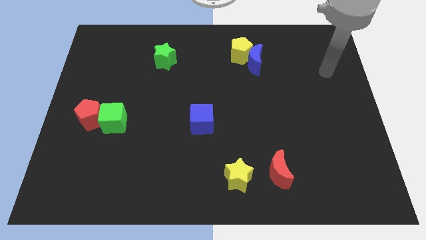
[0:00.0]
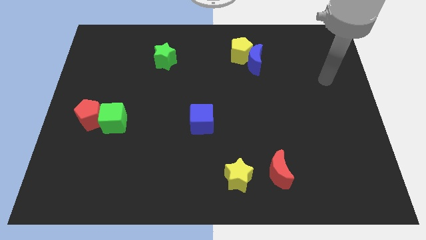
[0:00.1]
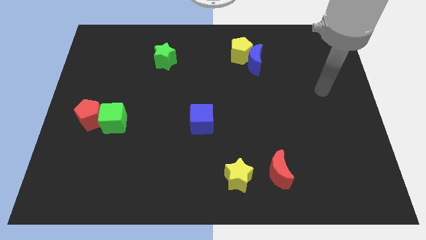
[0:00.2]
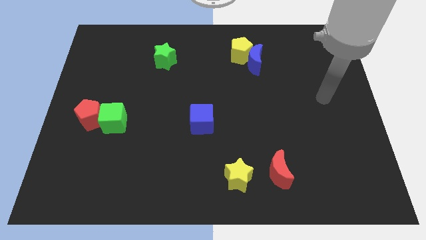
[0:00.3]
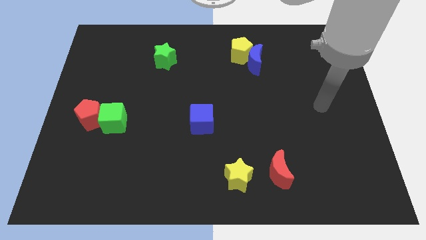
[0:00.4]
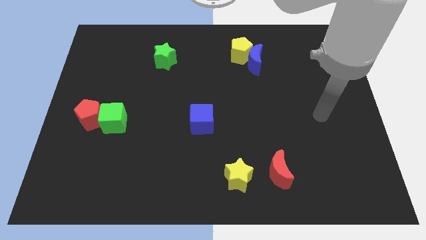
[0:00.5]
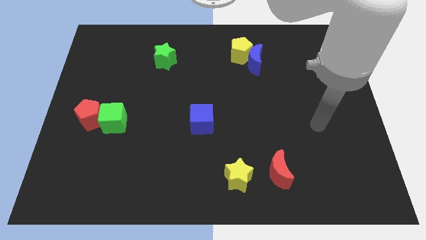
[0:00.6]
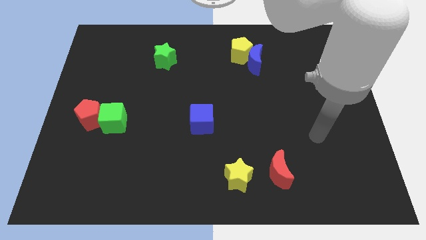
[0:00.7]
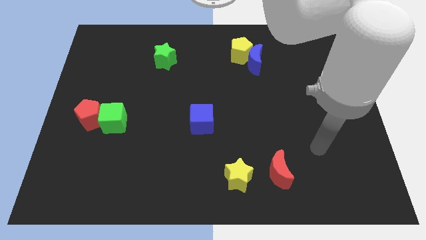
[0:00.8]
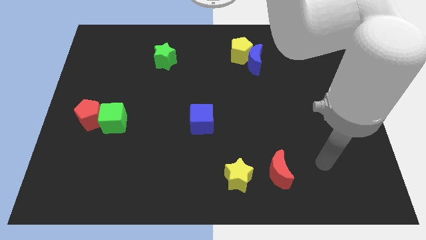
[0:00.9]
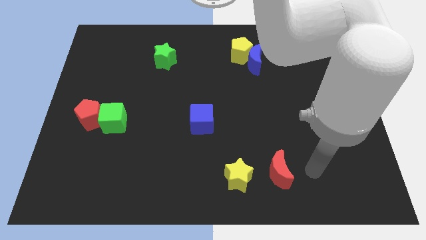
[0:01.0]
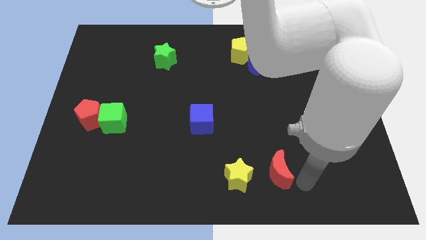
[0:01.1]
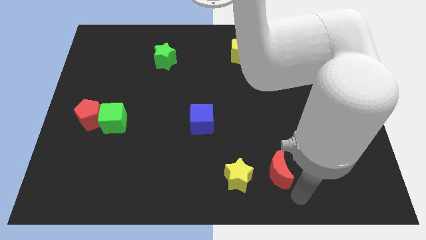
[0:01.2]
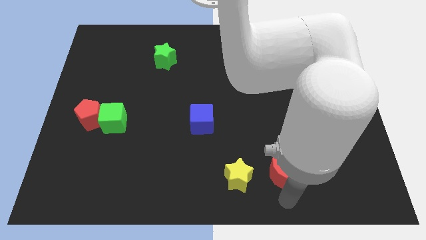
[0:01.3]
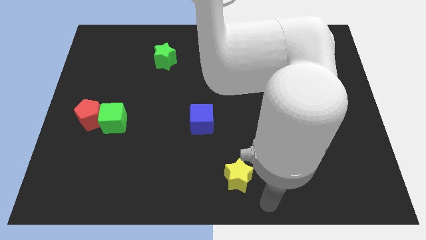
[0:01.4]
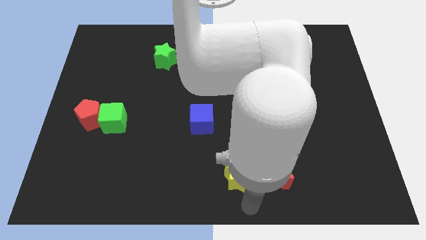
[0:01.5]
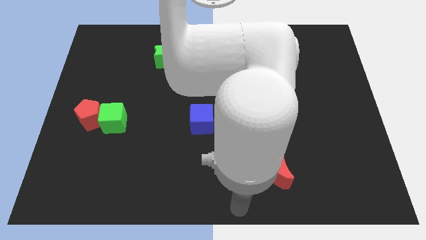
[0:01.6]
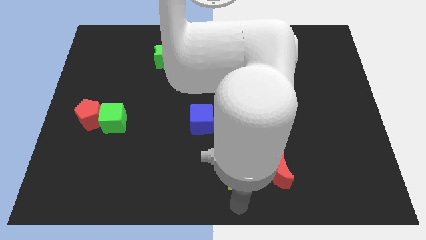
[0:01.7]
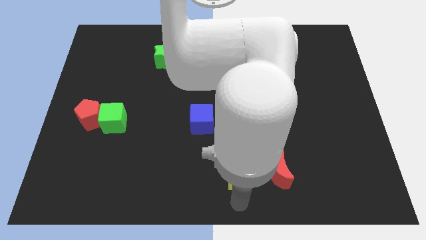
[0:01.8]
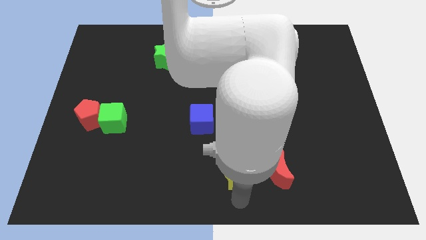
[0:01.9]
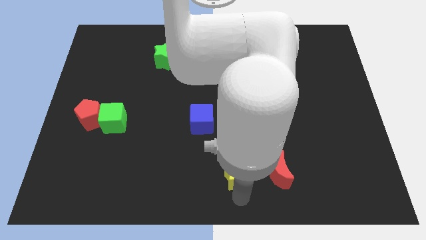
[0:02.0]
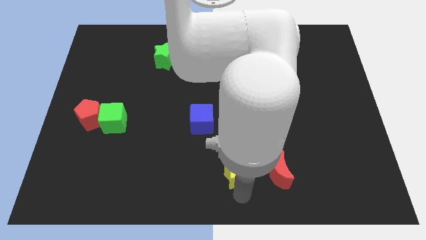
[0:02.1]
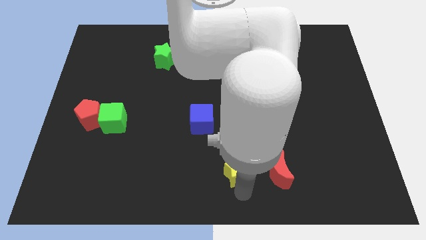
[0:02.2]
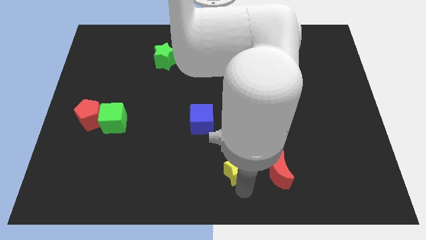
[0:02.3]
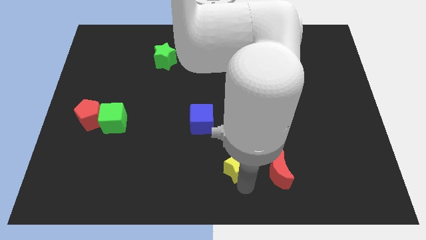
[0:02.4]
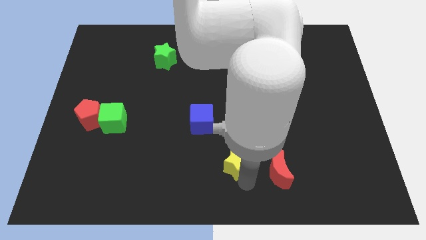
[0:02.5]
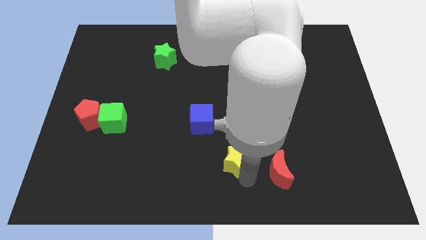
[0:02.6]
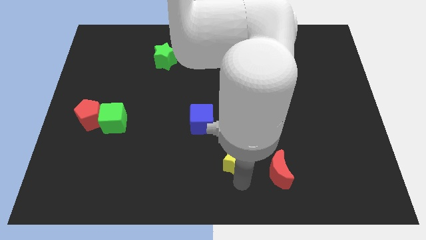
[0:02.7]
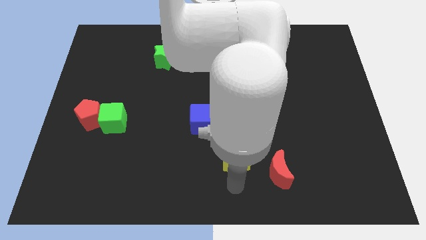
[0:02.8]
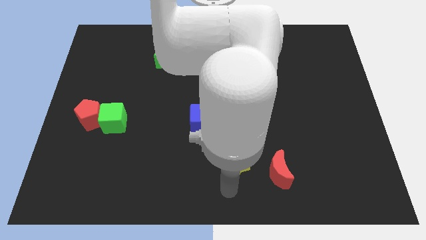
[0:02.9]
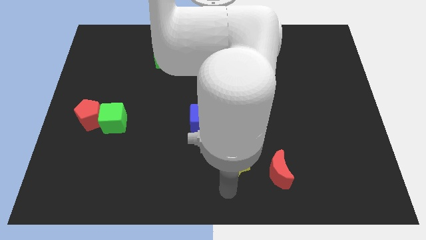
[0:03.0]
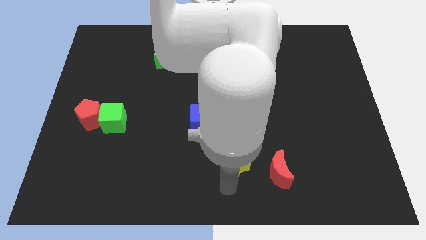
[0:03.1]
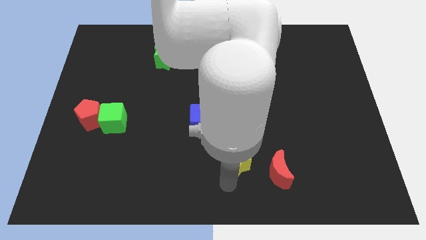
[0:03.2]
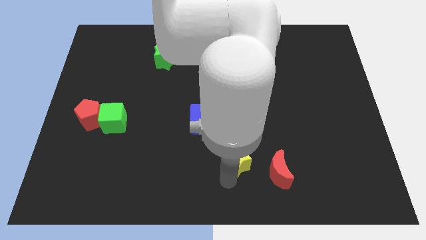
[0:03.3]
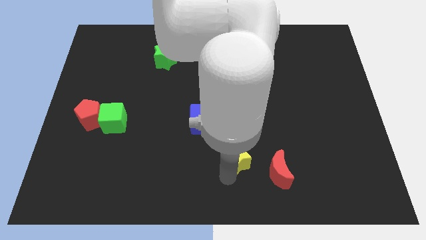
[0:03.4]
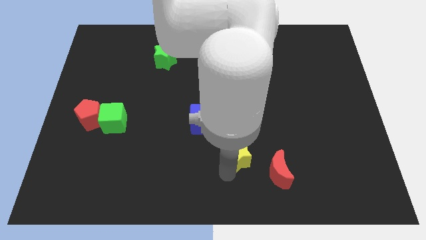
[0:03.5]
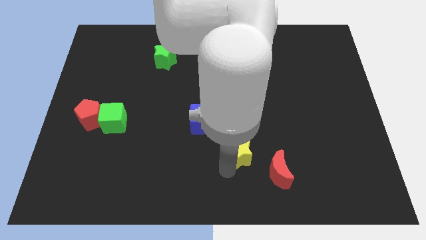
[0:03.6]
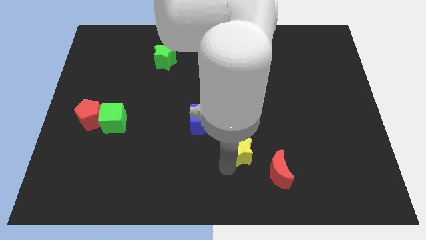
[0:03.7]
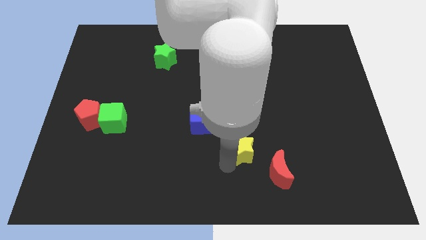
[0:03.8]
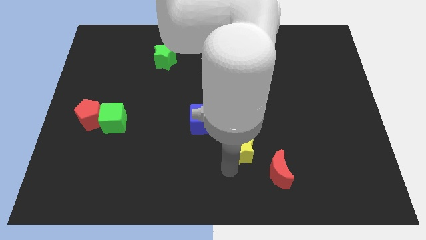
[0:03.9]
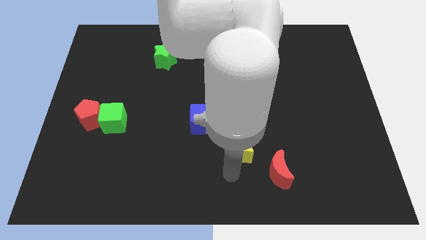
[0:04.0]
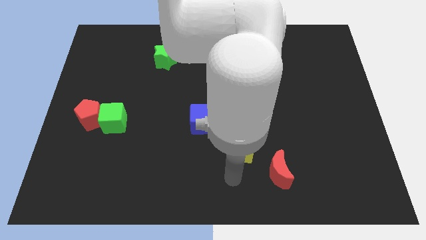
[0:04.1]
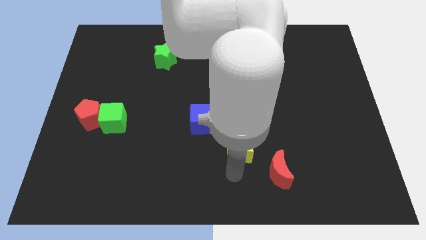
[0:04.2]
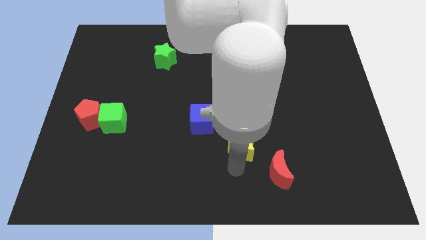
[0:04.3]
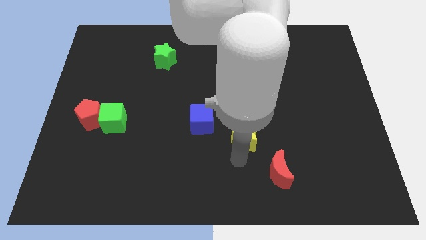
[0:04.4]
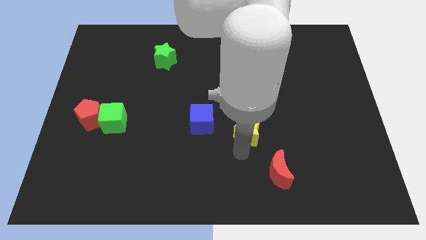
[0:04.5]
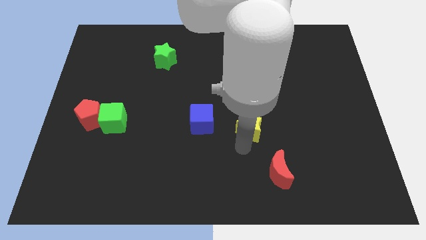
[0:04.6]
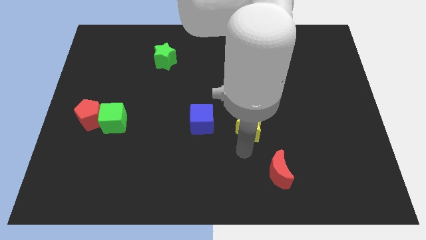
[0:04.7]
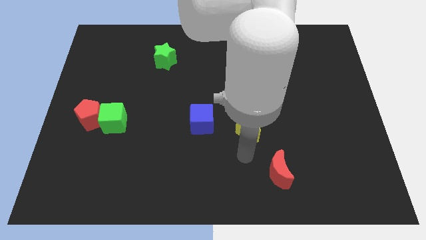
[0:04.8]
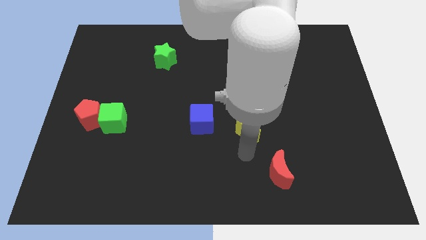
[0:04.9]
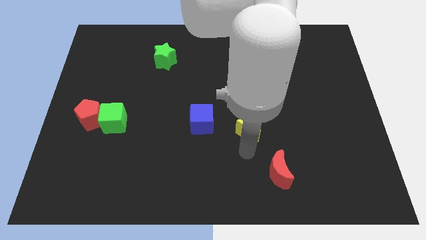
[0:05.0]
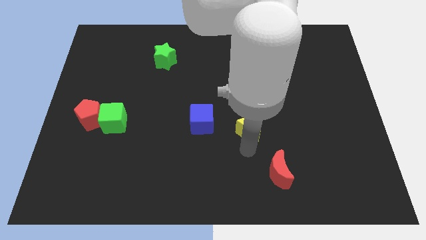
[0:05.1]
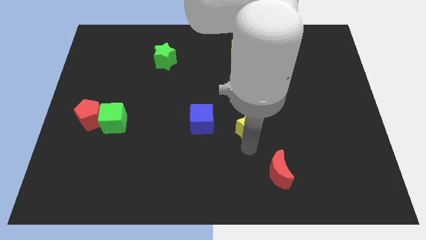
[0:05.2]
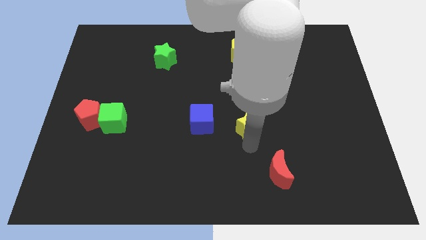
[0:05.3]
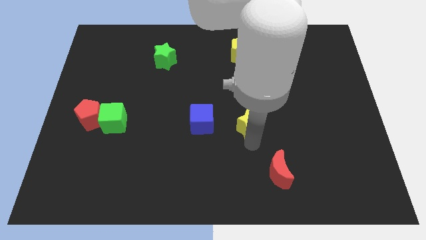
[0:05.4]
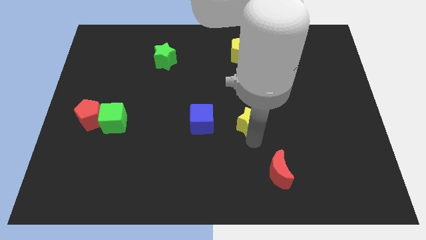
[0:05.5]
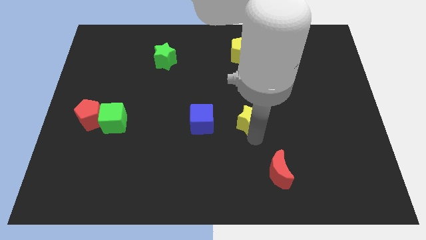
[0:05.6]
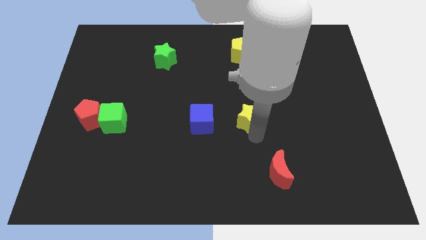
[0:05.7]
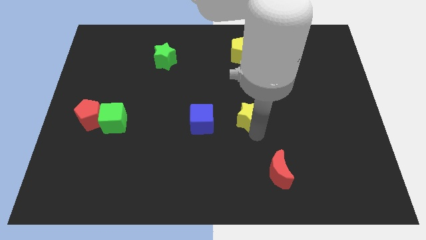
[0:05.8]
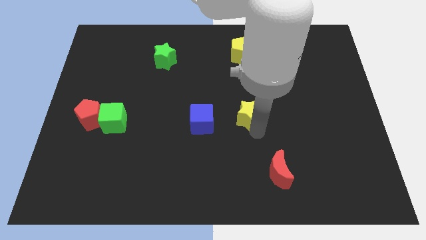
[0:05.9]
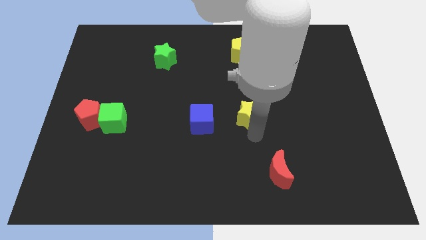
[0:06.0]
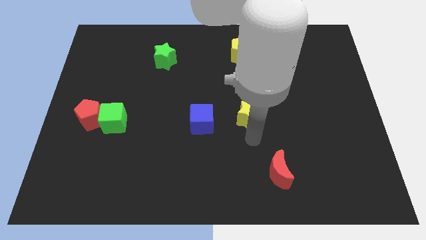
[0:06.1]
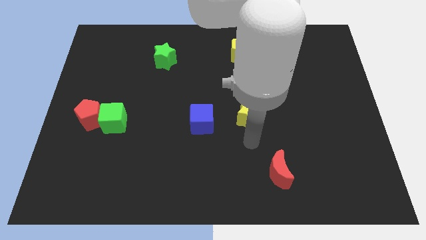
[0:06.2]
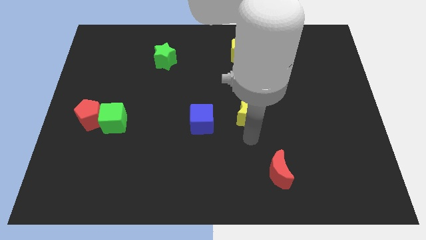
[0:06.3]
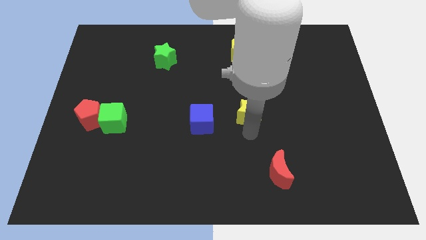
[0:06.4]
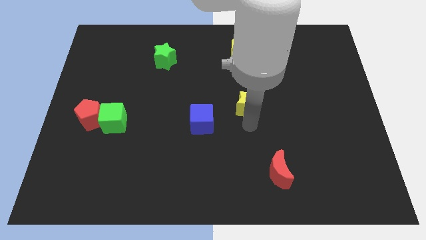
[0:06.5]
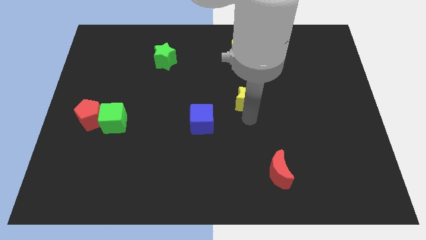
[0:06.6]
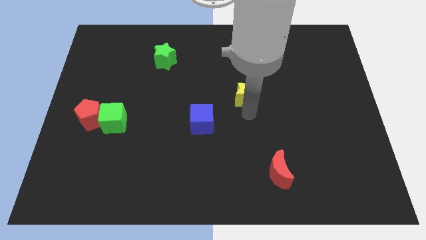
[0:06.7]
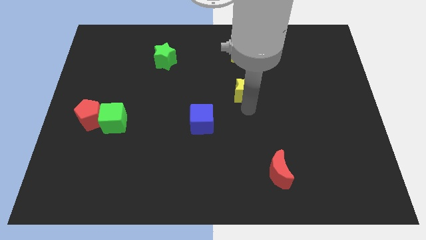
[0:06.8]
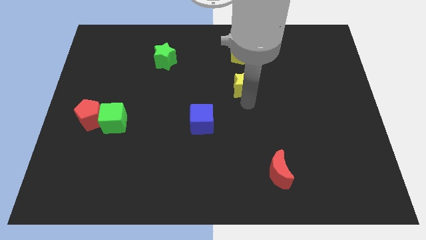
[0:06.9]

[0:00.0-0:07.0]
slide the yellow star diagonally down and to the left of the blue moon

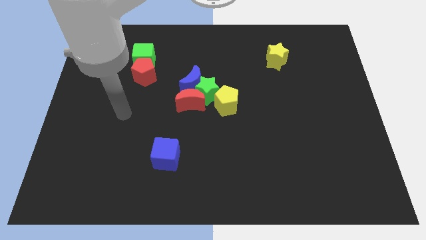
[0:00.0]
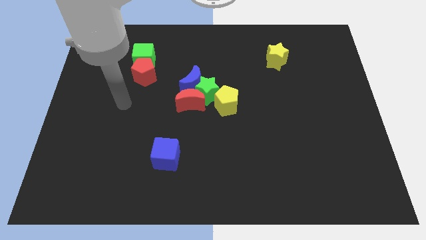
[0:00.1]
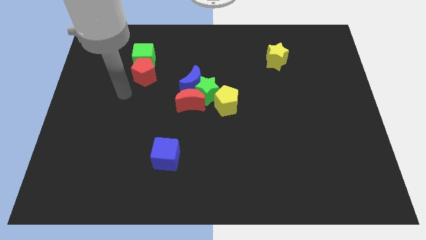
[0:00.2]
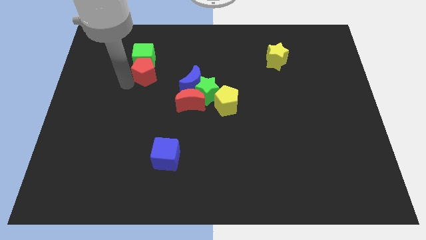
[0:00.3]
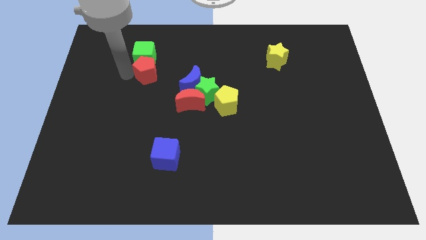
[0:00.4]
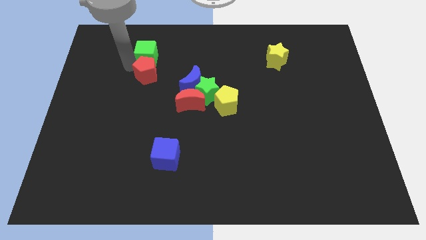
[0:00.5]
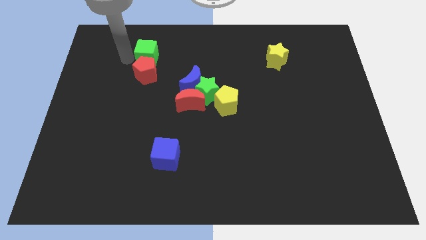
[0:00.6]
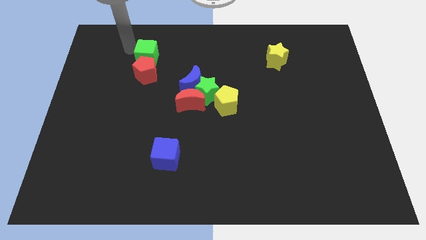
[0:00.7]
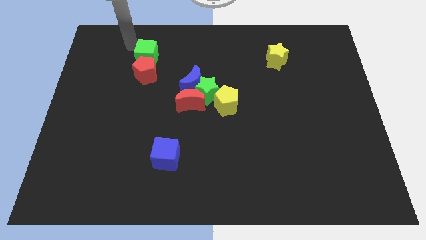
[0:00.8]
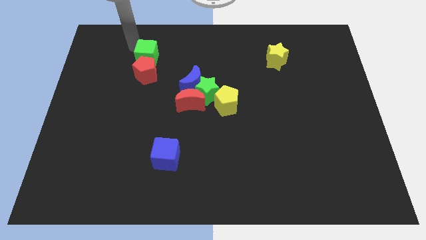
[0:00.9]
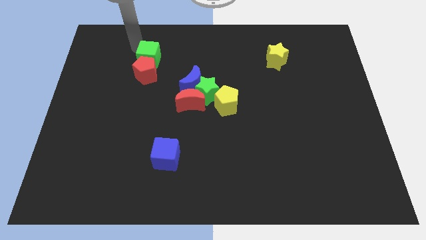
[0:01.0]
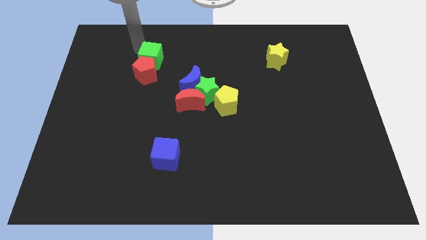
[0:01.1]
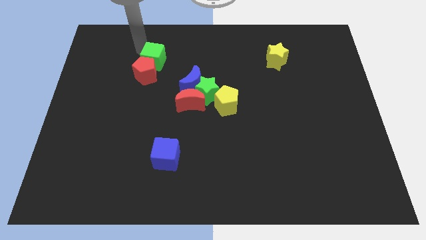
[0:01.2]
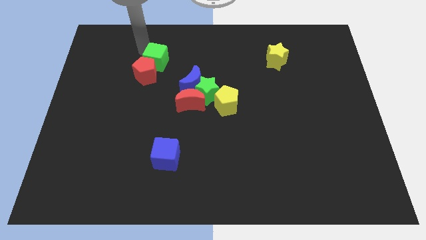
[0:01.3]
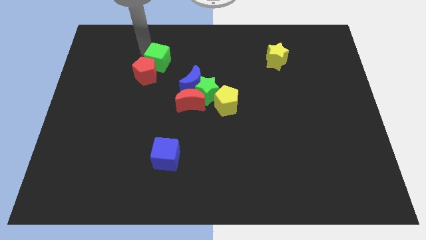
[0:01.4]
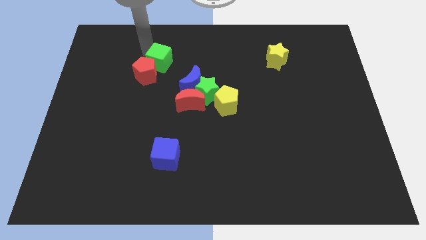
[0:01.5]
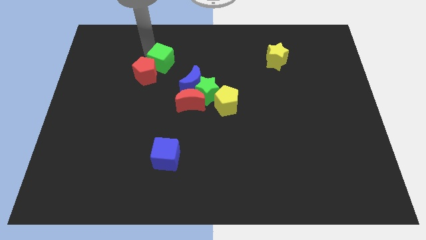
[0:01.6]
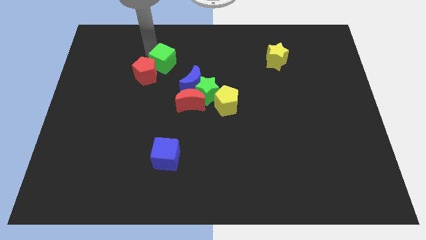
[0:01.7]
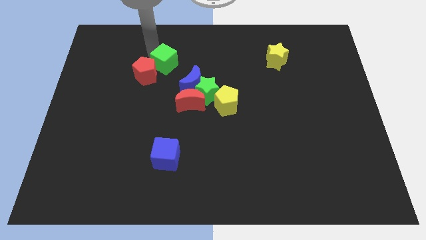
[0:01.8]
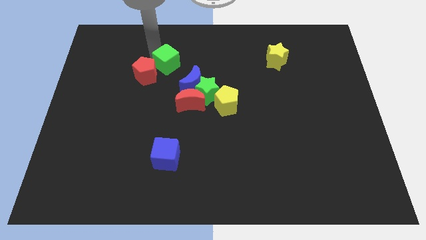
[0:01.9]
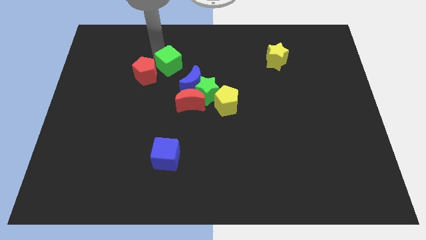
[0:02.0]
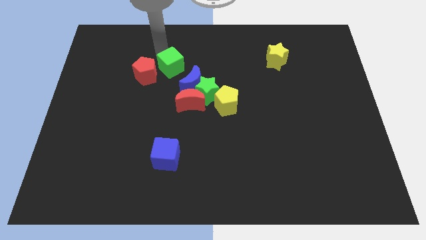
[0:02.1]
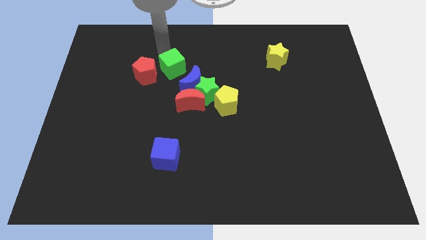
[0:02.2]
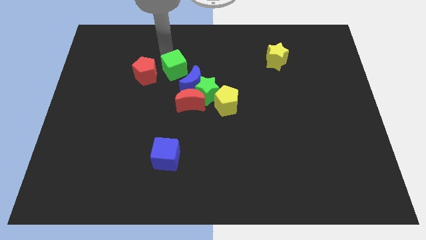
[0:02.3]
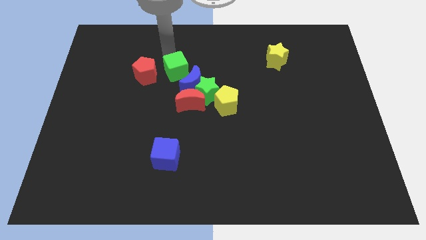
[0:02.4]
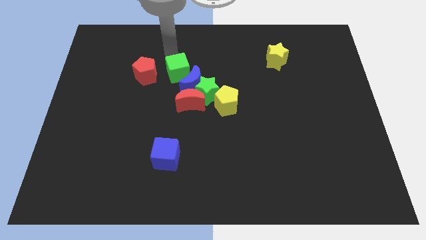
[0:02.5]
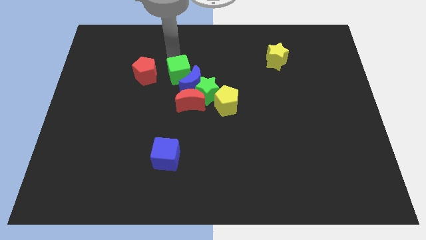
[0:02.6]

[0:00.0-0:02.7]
slide the green cube to the top left side of the red moon
